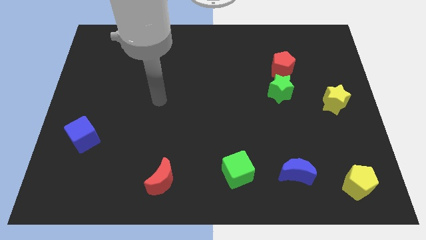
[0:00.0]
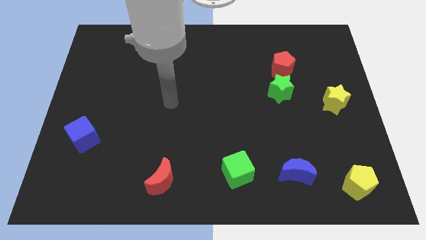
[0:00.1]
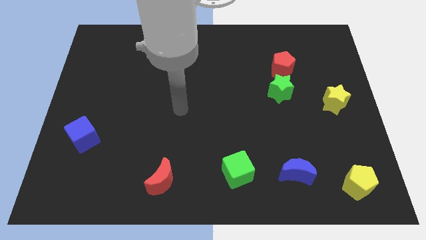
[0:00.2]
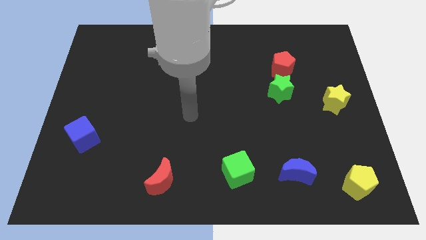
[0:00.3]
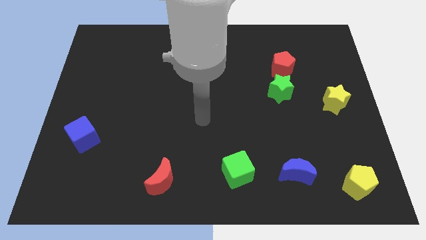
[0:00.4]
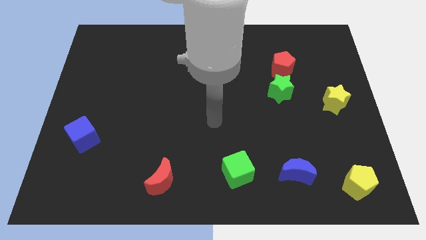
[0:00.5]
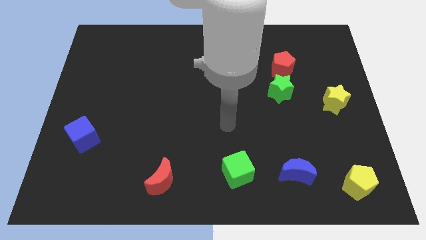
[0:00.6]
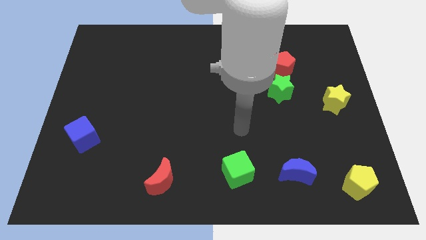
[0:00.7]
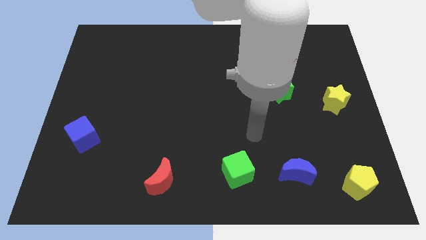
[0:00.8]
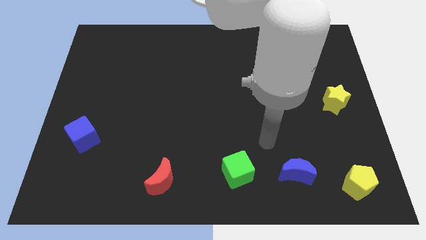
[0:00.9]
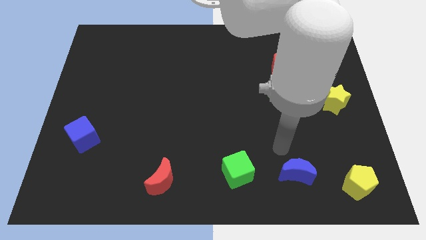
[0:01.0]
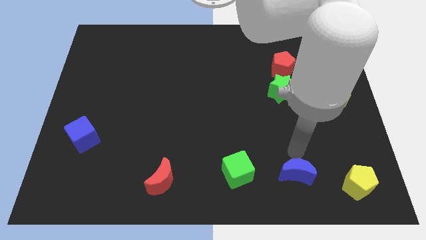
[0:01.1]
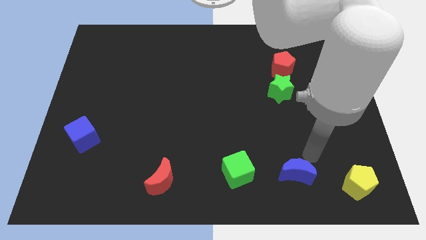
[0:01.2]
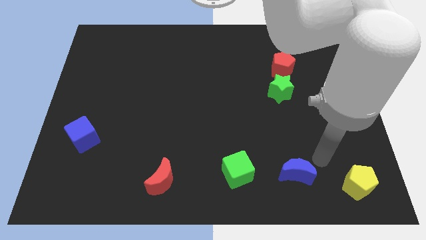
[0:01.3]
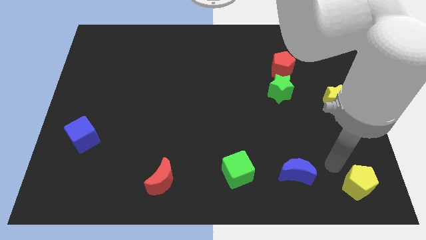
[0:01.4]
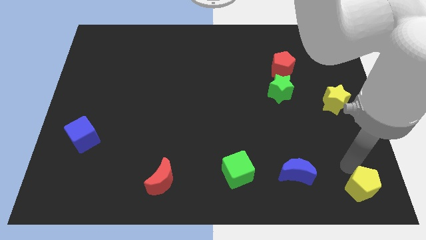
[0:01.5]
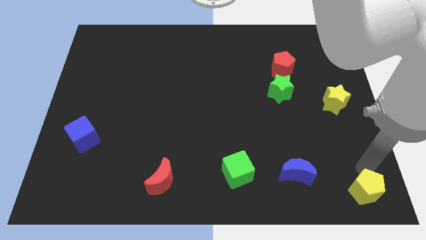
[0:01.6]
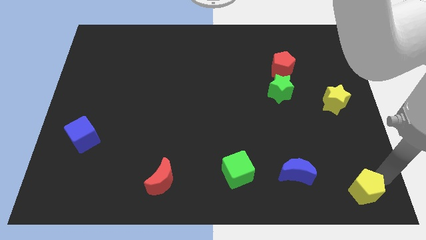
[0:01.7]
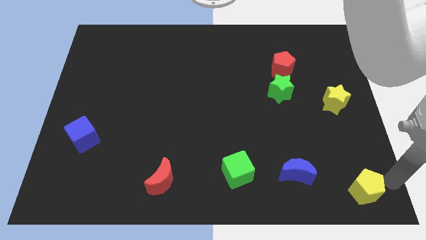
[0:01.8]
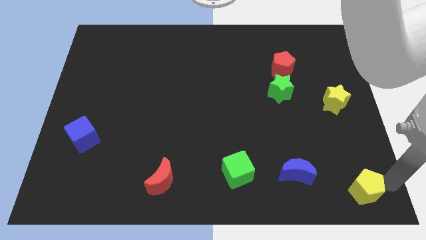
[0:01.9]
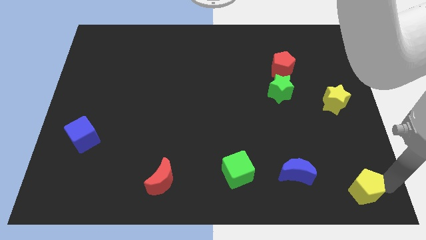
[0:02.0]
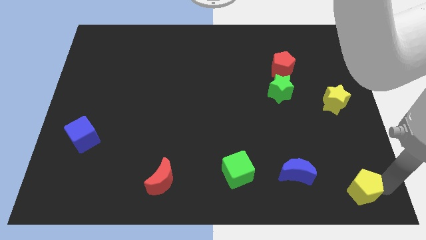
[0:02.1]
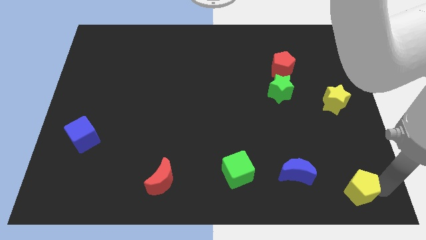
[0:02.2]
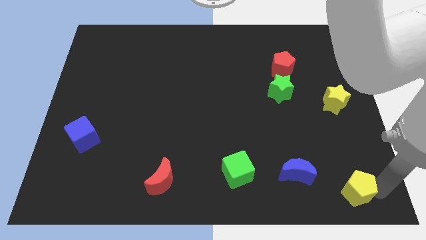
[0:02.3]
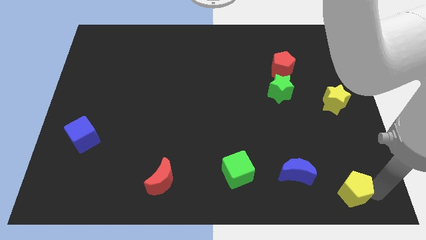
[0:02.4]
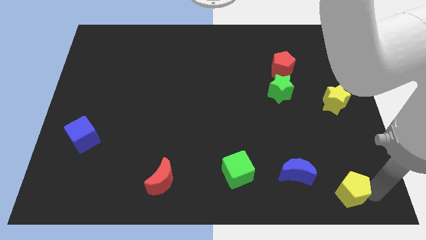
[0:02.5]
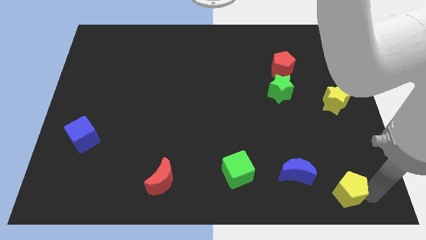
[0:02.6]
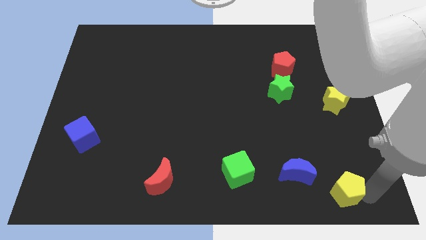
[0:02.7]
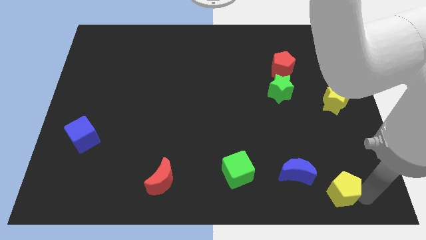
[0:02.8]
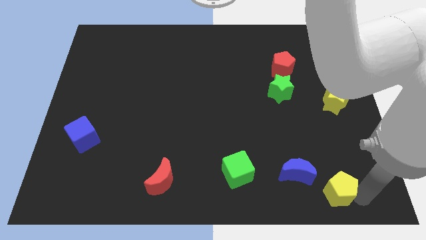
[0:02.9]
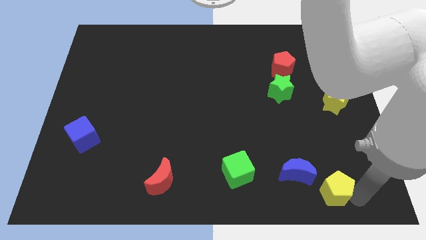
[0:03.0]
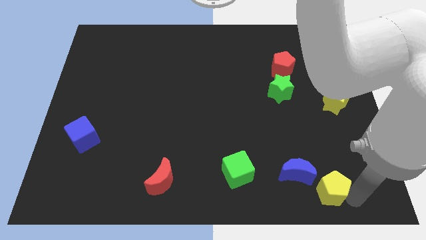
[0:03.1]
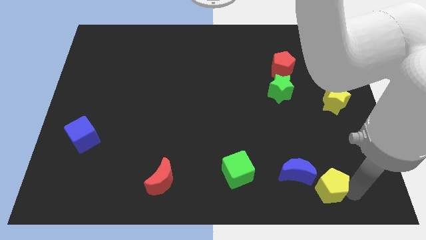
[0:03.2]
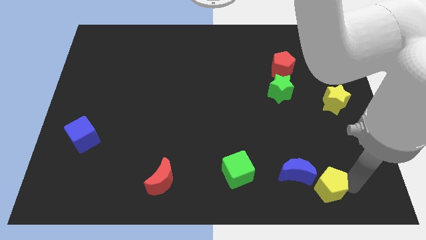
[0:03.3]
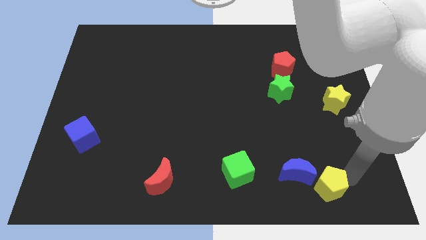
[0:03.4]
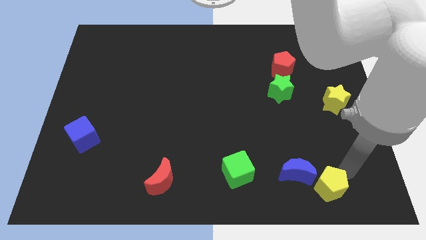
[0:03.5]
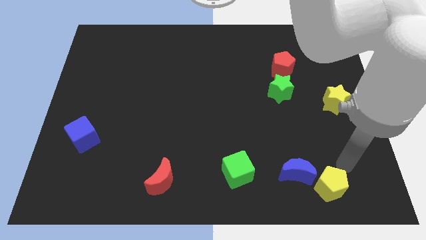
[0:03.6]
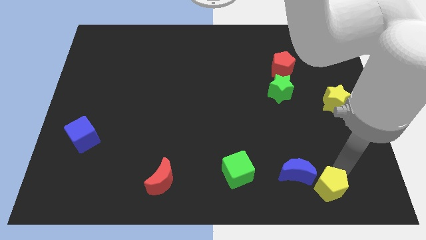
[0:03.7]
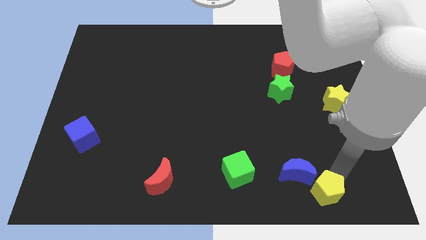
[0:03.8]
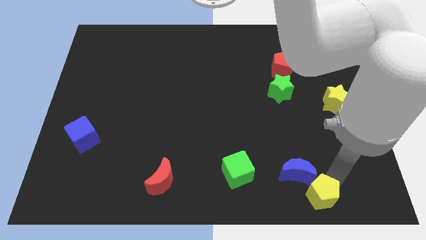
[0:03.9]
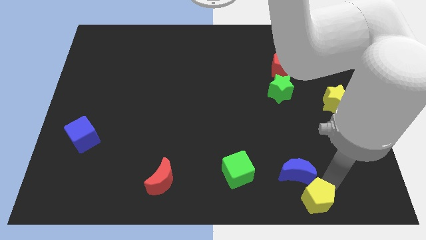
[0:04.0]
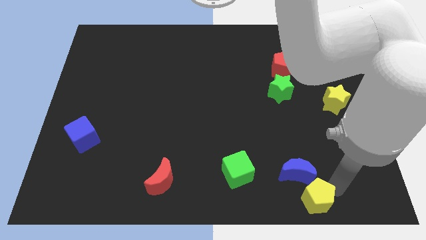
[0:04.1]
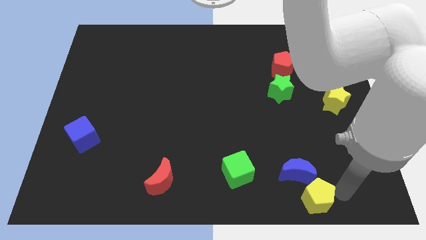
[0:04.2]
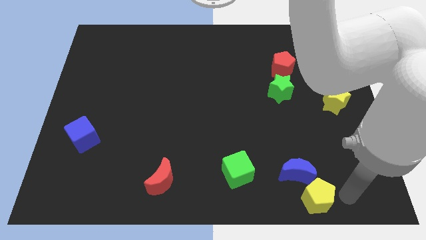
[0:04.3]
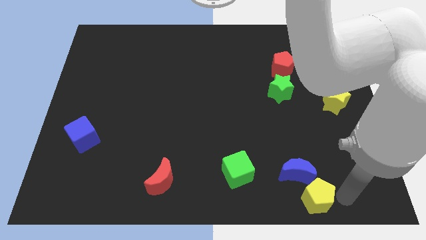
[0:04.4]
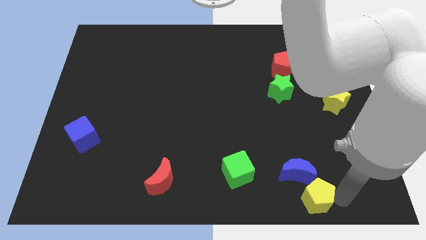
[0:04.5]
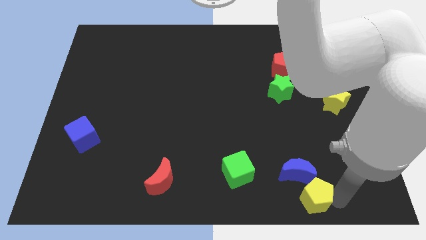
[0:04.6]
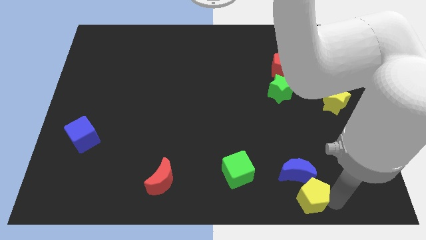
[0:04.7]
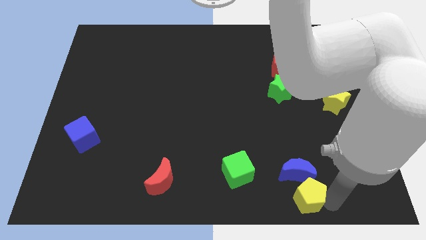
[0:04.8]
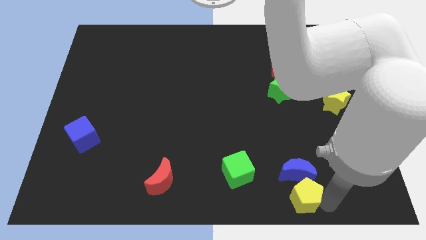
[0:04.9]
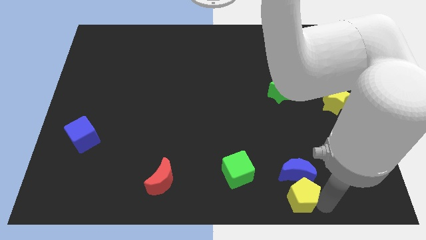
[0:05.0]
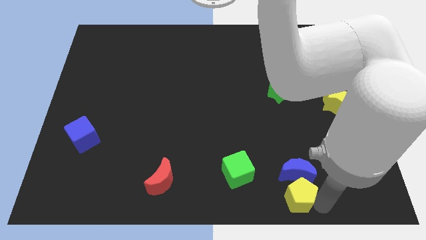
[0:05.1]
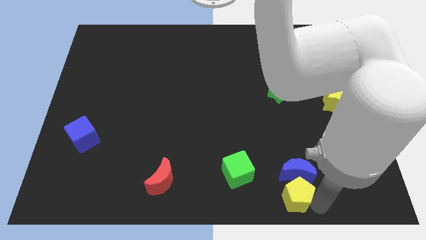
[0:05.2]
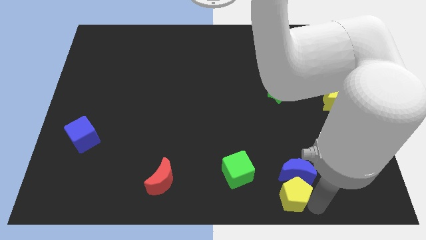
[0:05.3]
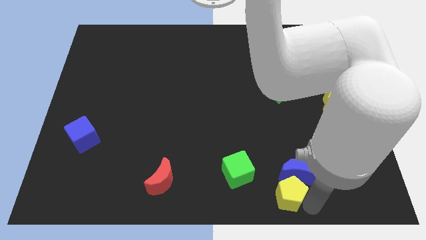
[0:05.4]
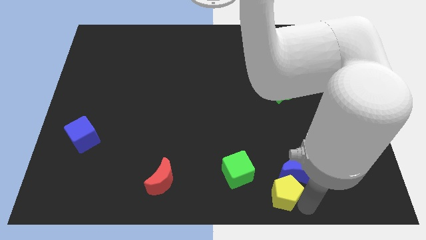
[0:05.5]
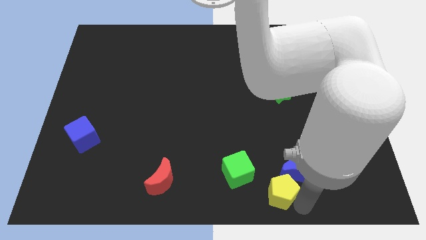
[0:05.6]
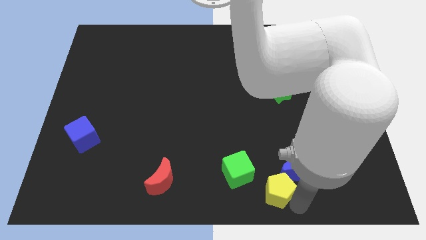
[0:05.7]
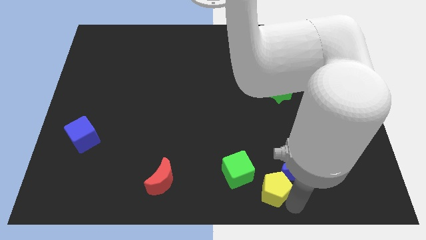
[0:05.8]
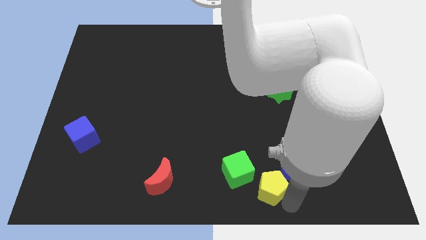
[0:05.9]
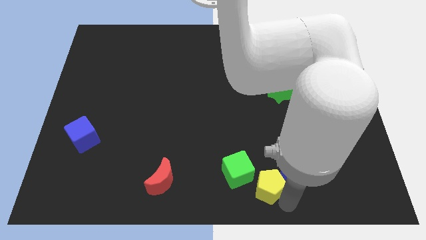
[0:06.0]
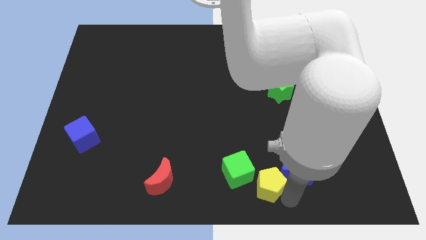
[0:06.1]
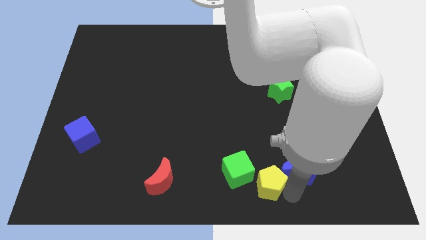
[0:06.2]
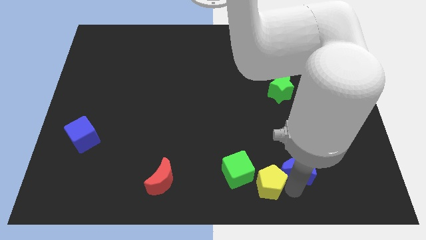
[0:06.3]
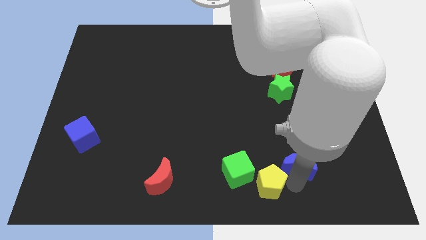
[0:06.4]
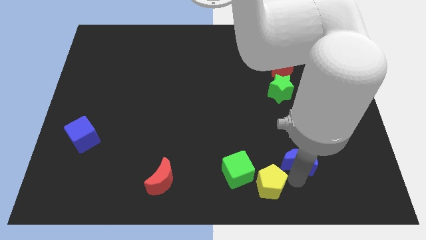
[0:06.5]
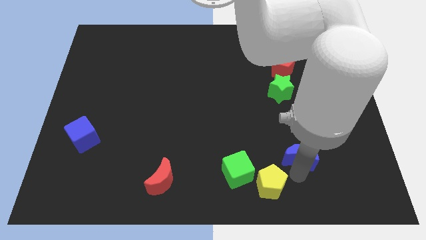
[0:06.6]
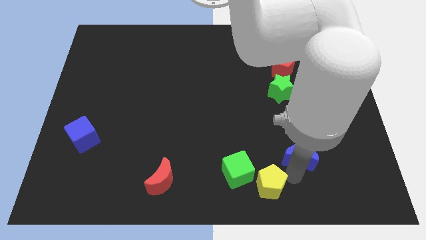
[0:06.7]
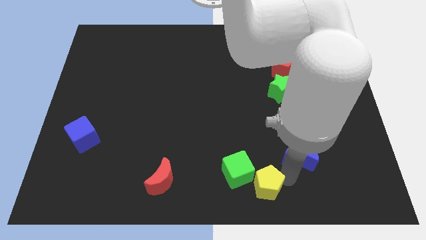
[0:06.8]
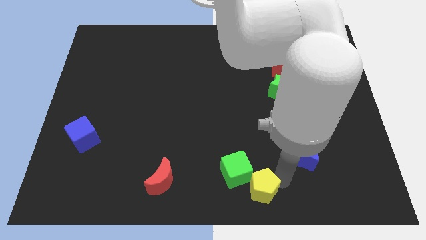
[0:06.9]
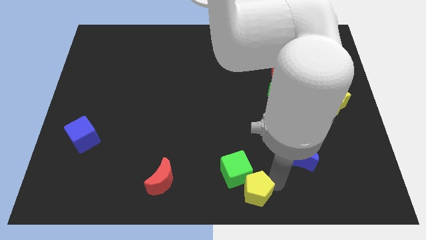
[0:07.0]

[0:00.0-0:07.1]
push the yellow pentagon to the left

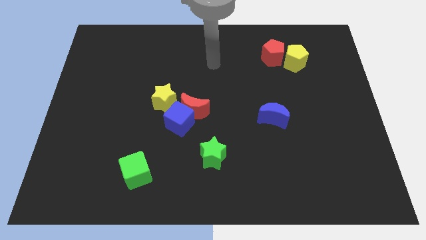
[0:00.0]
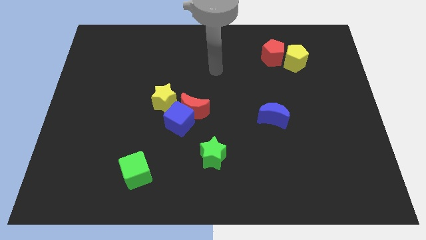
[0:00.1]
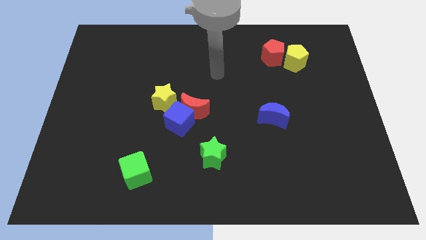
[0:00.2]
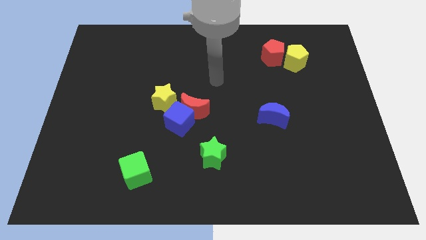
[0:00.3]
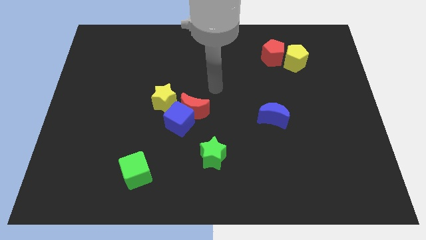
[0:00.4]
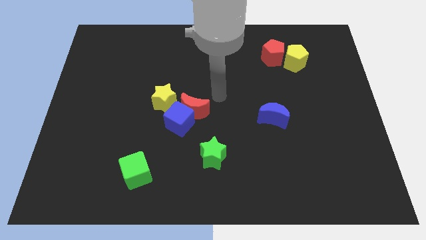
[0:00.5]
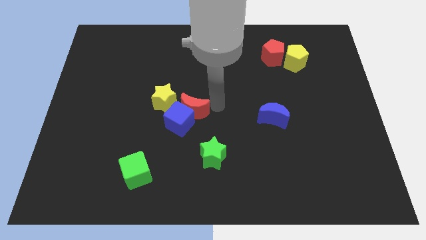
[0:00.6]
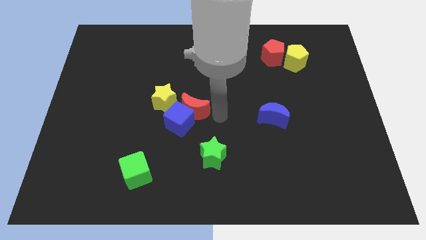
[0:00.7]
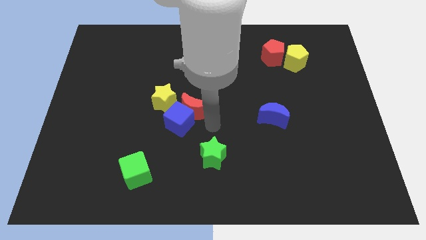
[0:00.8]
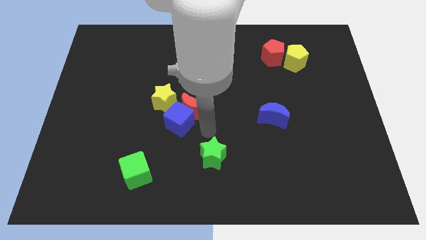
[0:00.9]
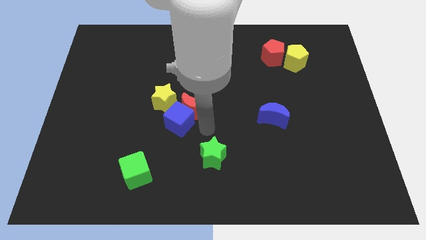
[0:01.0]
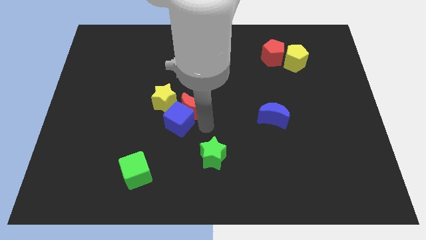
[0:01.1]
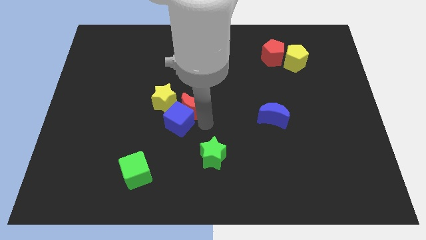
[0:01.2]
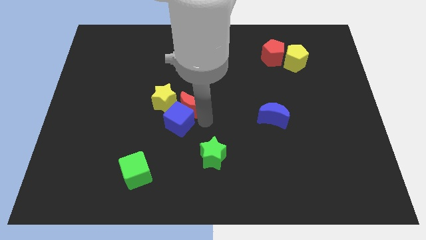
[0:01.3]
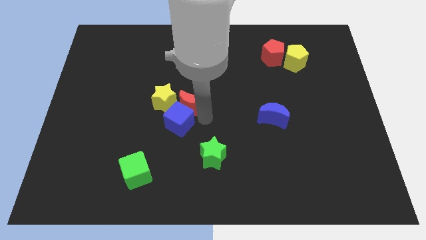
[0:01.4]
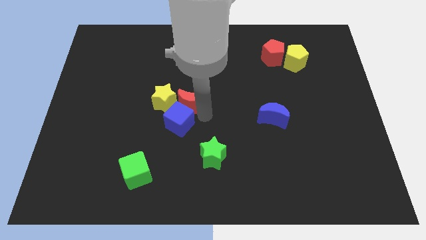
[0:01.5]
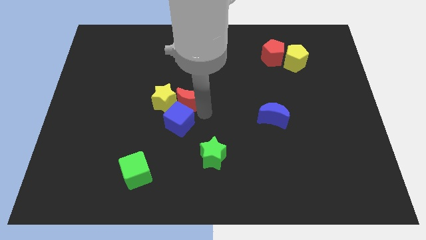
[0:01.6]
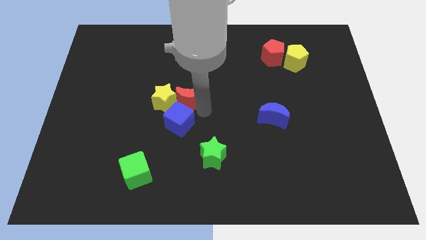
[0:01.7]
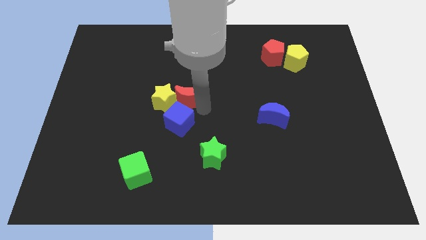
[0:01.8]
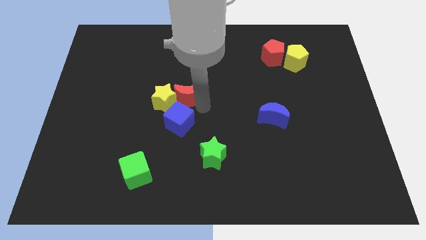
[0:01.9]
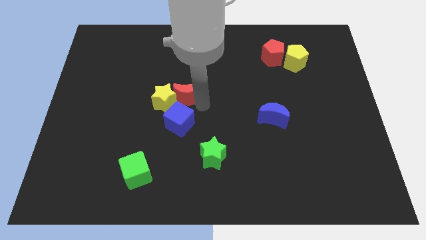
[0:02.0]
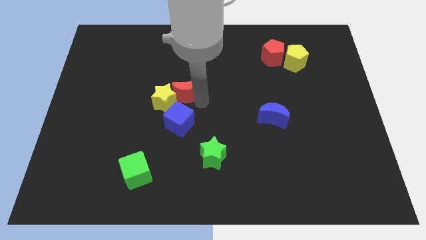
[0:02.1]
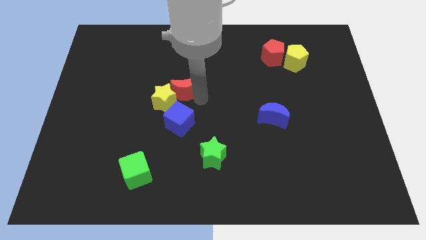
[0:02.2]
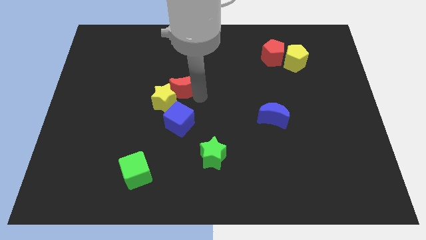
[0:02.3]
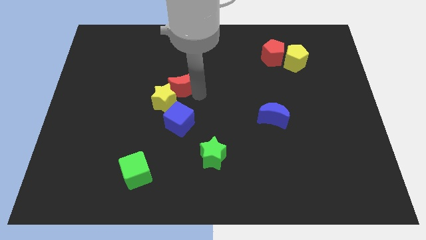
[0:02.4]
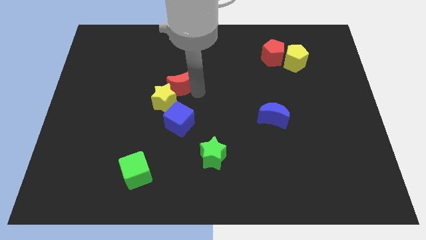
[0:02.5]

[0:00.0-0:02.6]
move the red moon upwards and left a bit
